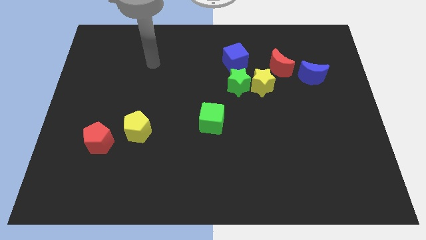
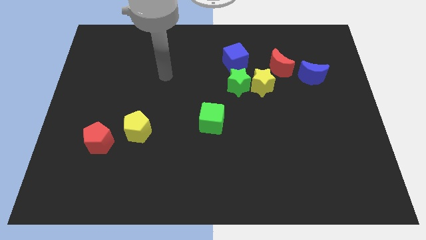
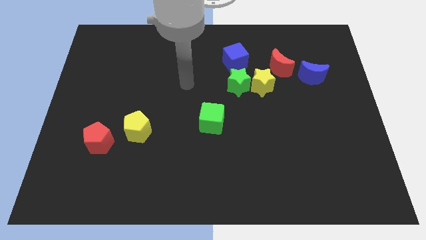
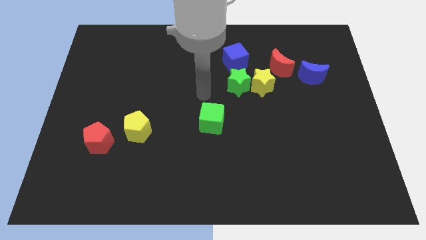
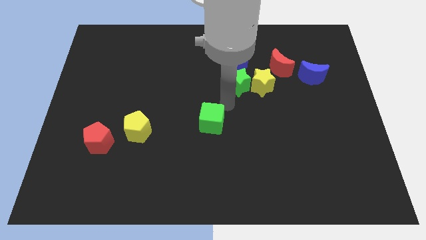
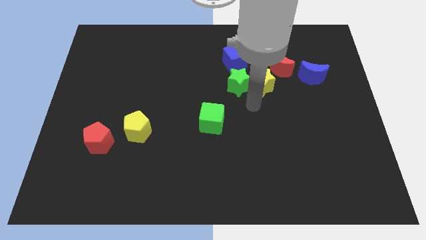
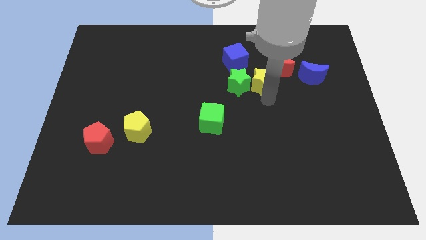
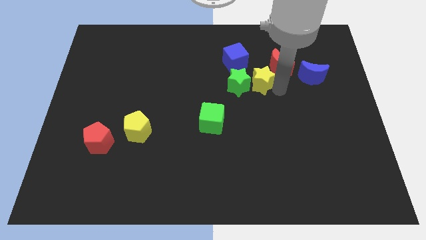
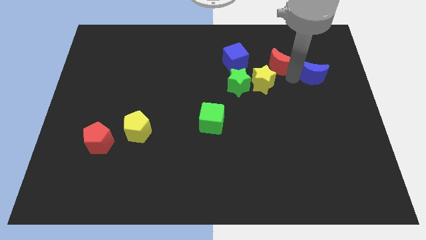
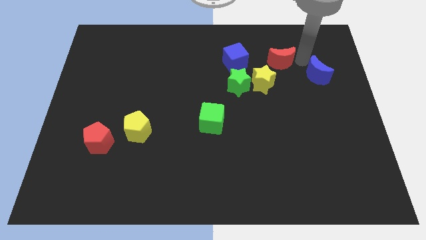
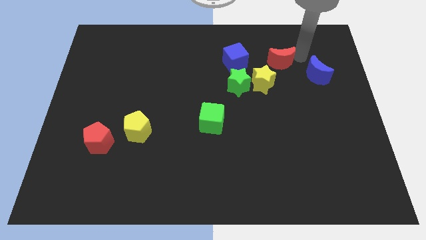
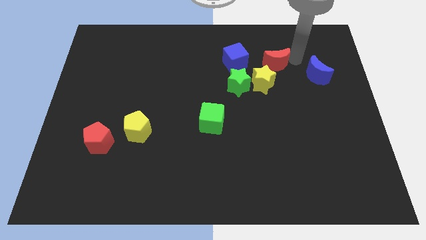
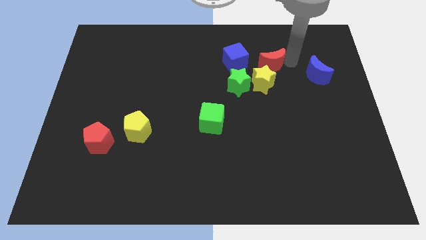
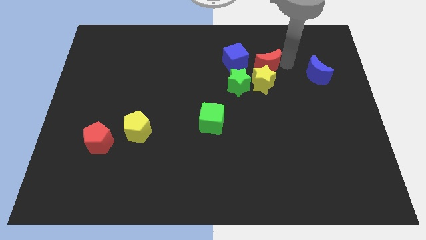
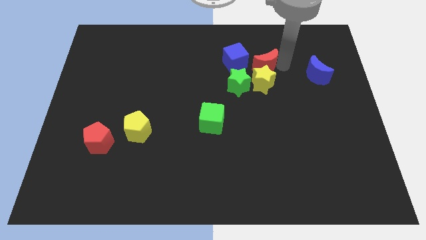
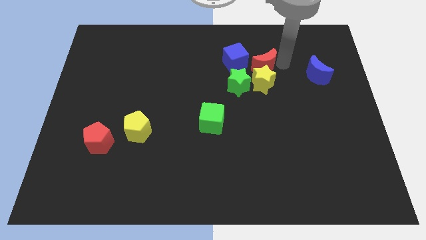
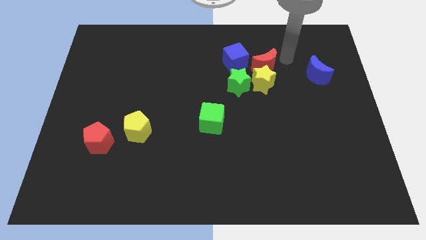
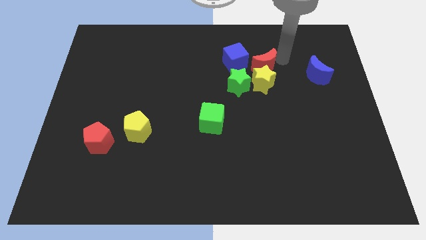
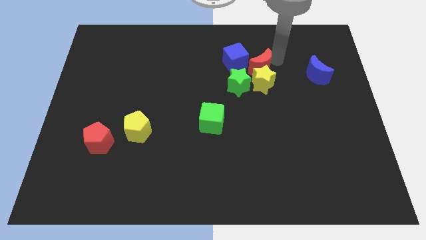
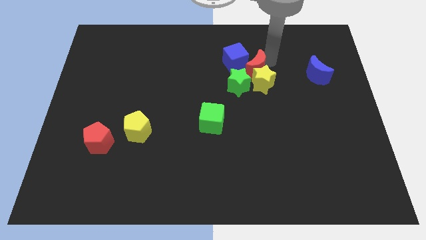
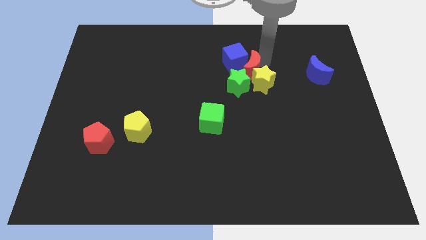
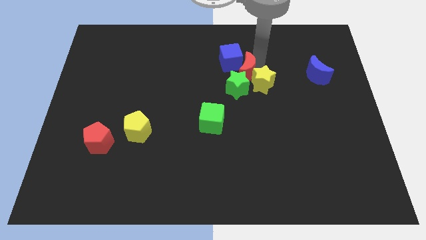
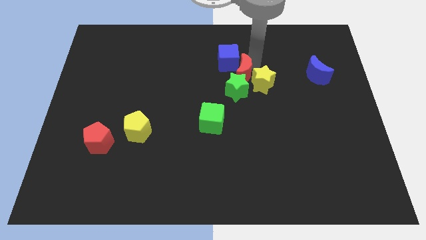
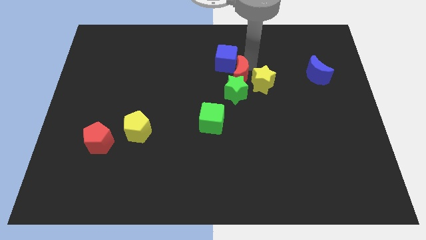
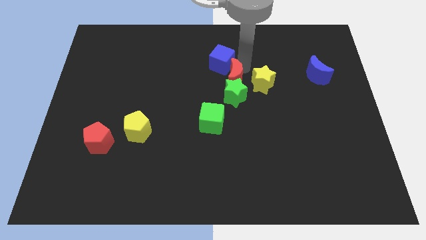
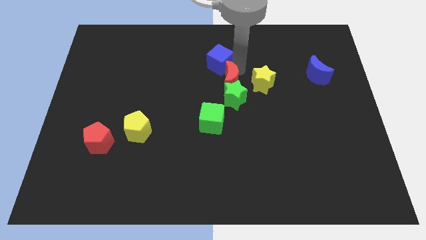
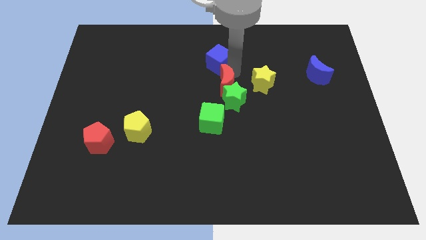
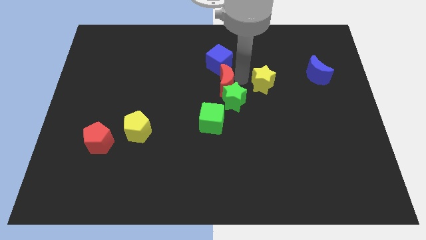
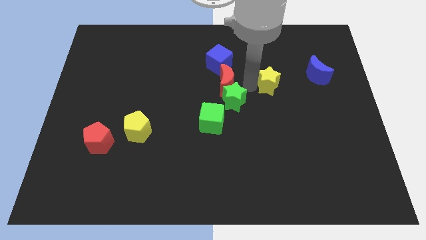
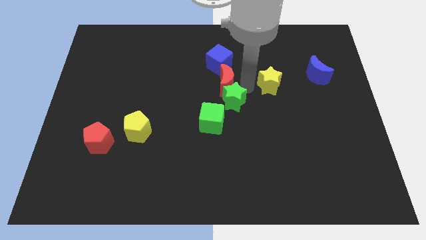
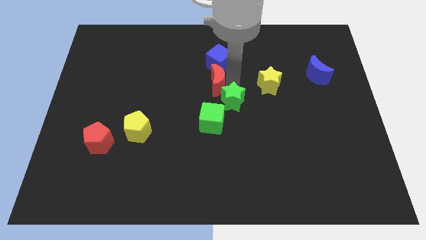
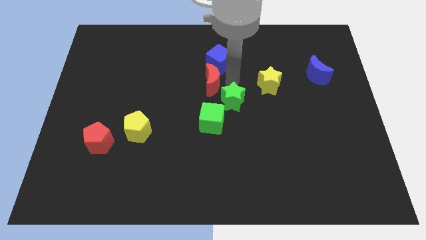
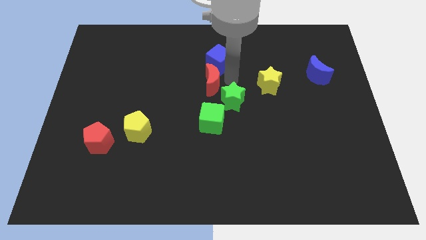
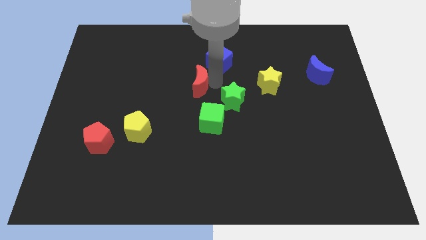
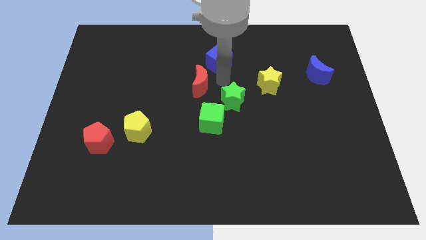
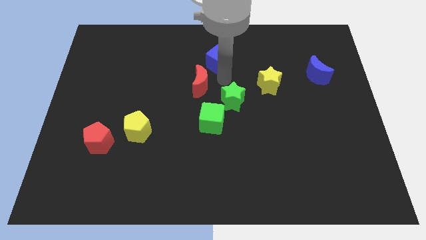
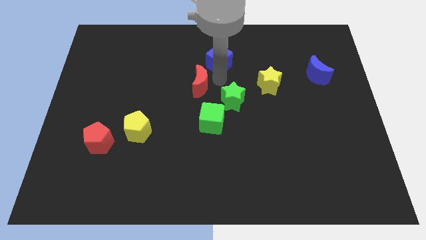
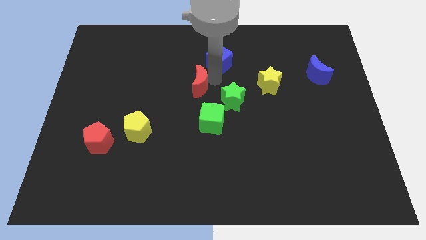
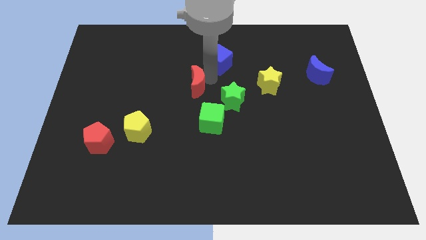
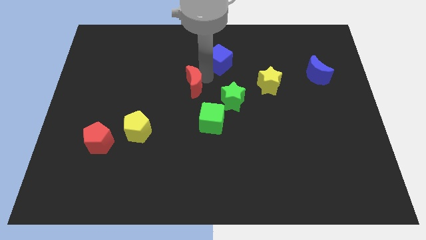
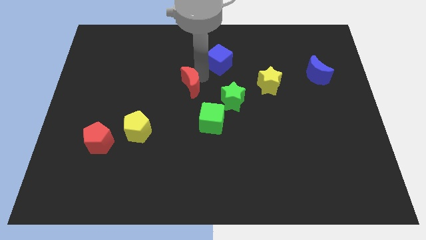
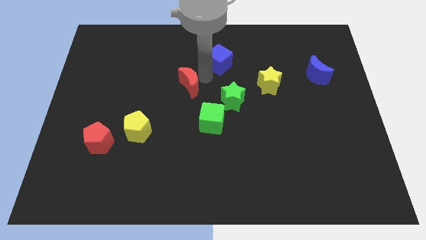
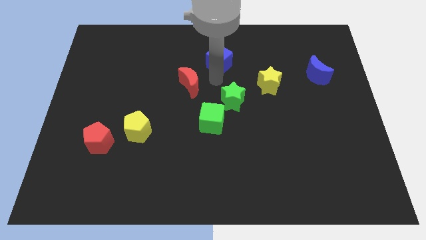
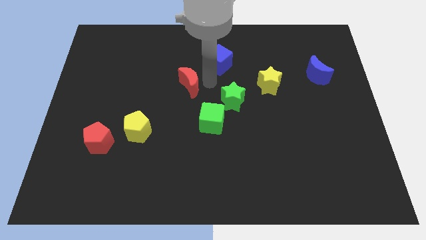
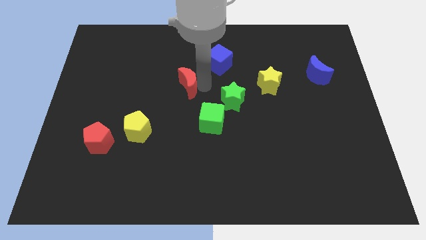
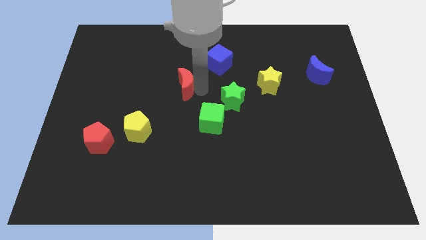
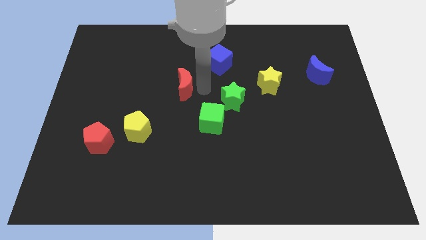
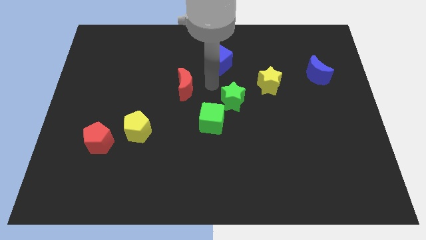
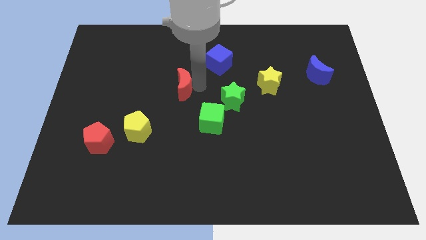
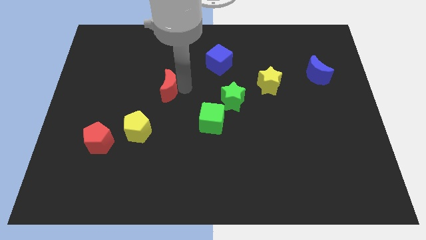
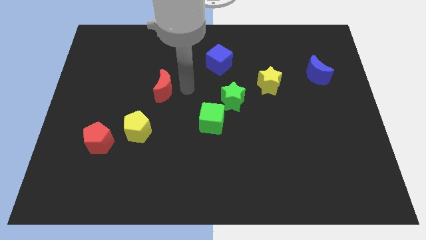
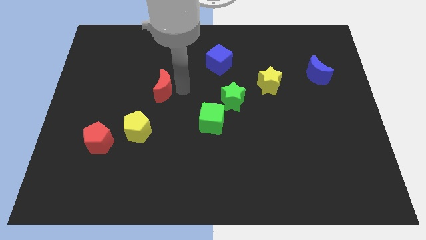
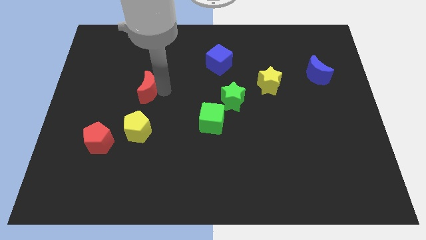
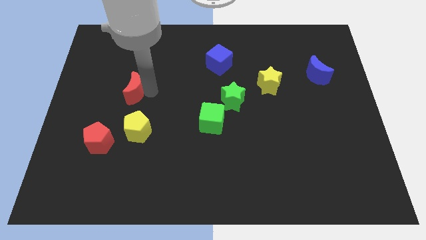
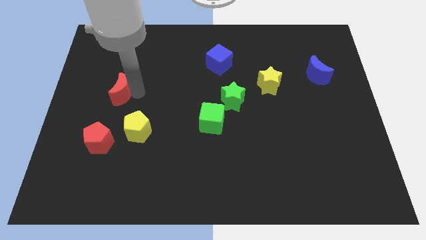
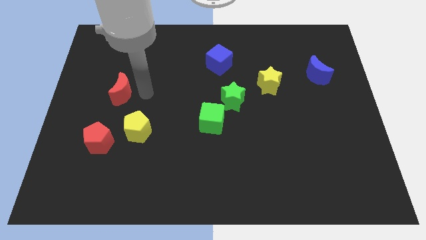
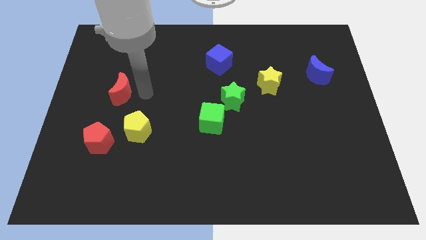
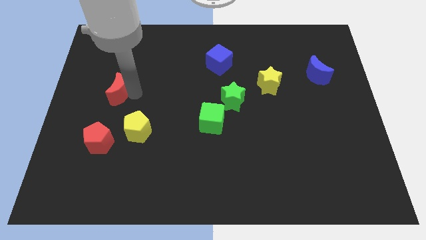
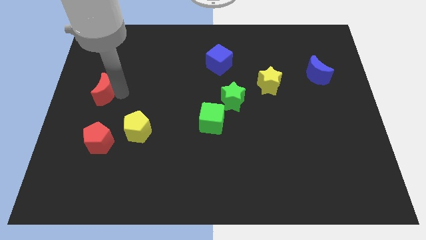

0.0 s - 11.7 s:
slide the red moon to the center left

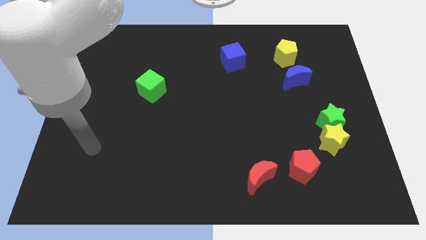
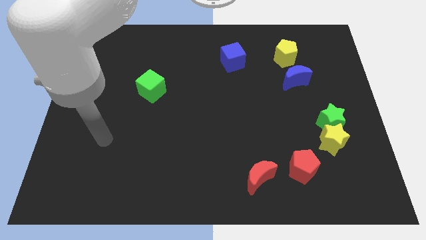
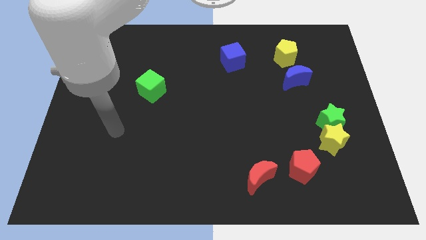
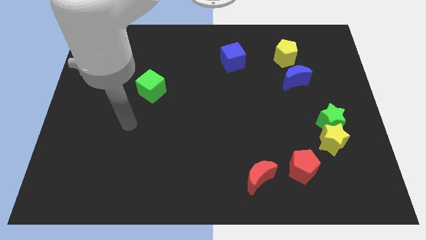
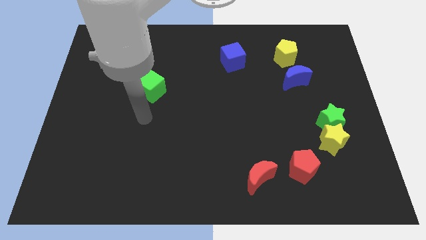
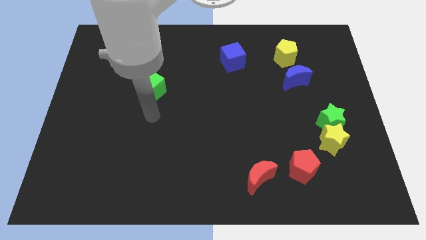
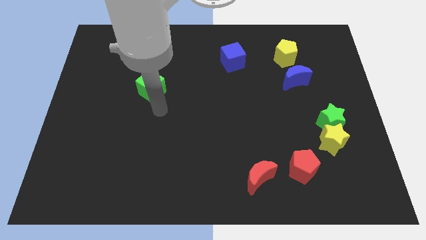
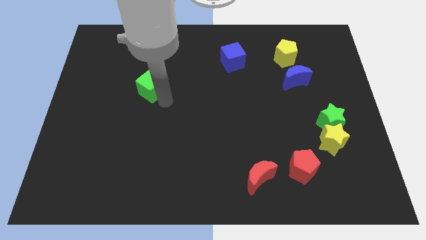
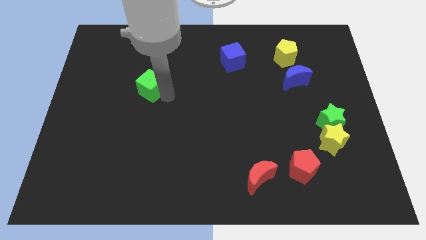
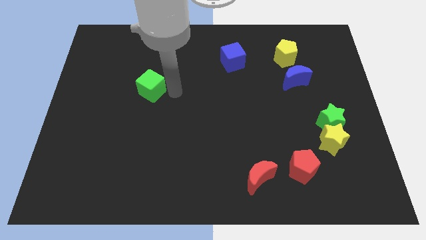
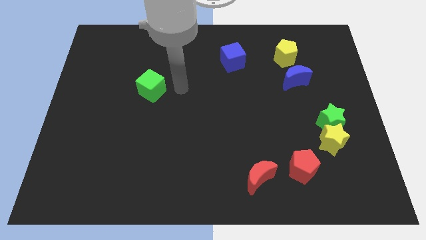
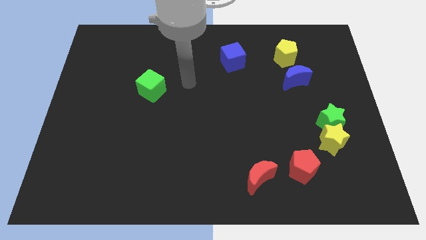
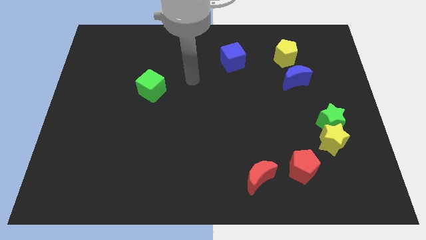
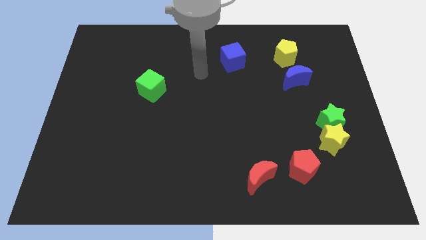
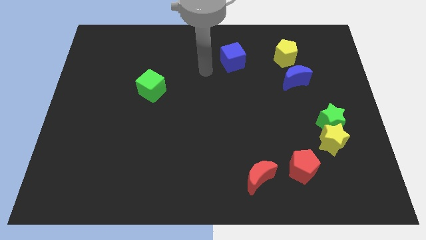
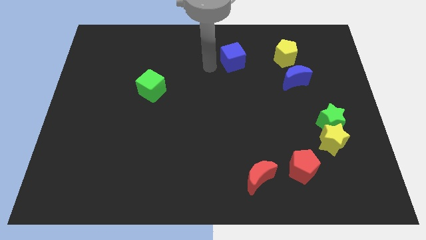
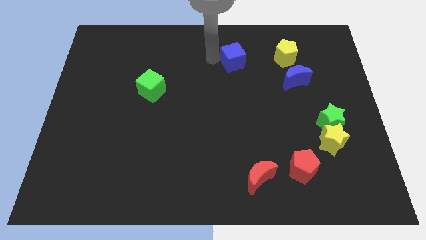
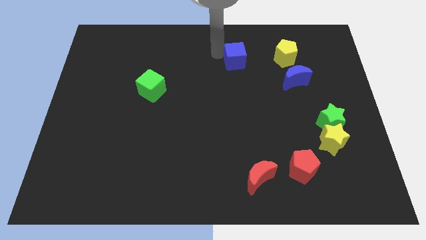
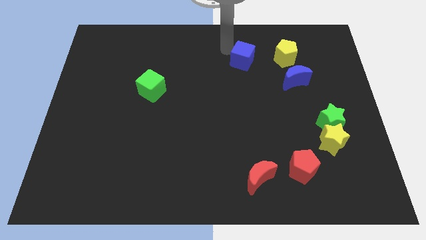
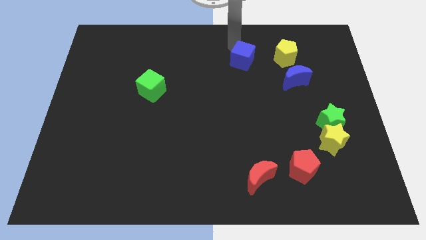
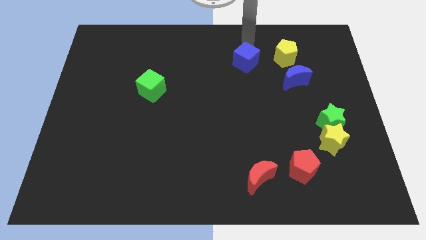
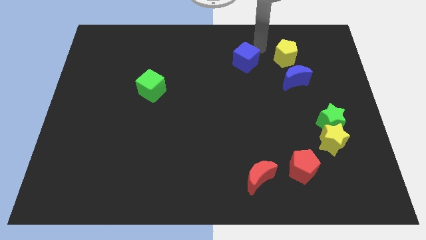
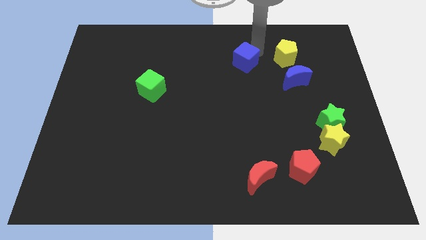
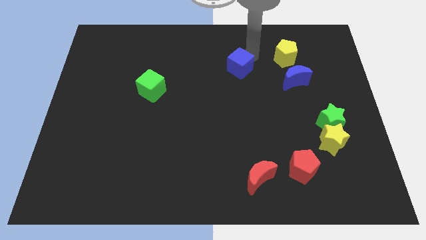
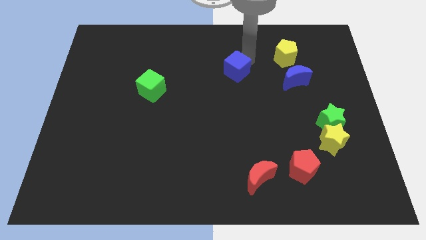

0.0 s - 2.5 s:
move the blue cube to the middle
